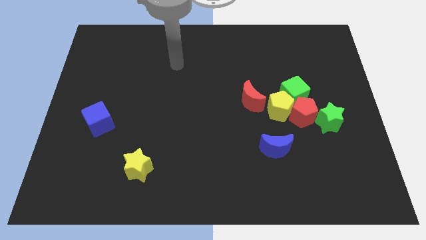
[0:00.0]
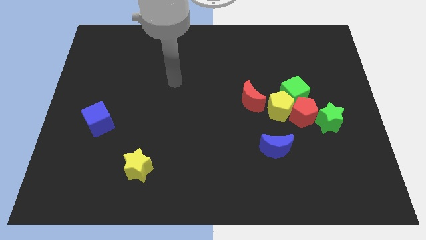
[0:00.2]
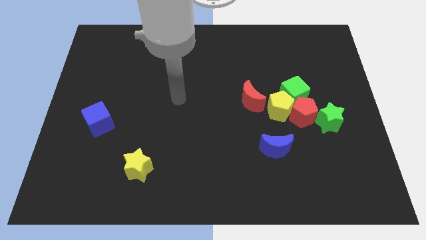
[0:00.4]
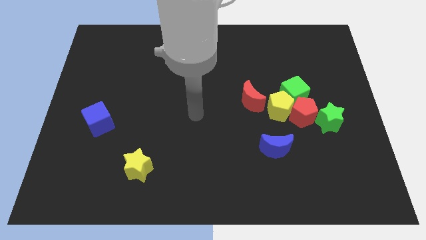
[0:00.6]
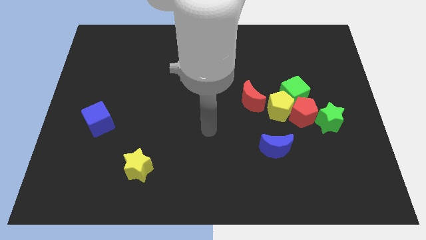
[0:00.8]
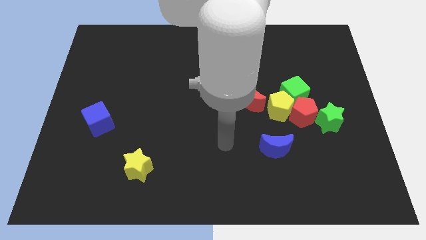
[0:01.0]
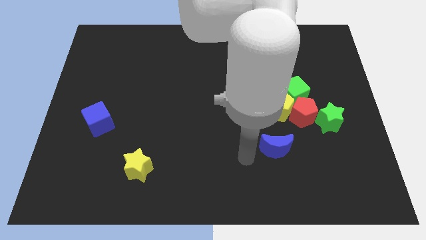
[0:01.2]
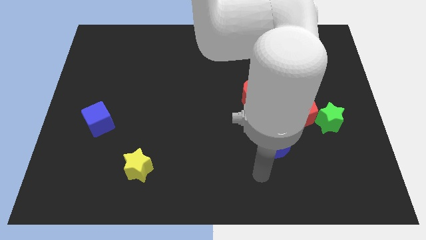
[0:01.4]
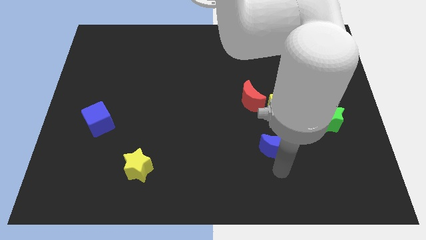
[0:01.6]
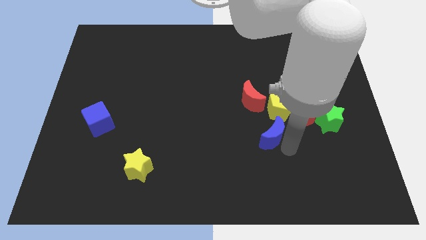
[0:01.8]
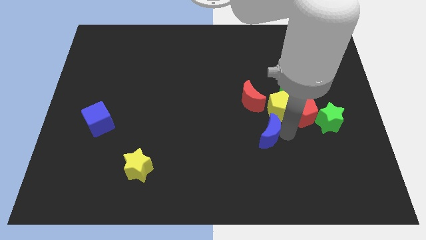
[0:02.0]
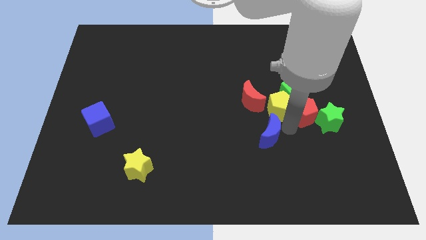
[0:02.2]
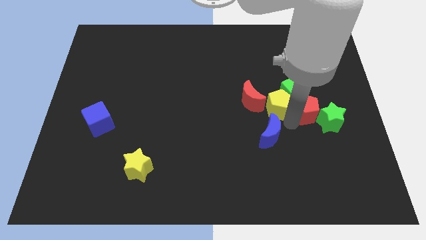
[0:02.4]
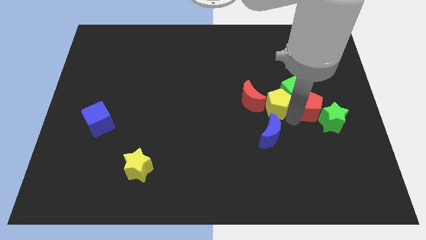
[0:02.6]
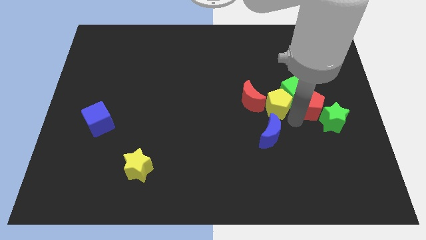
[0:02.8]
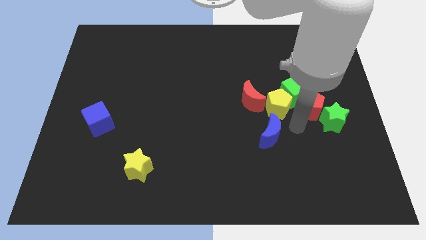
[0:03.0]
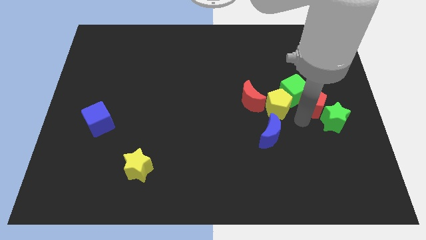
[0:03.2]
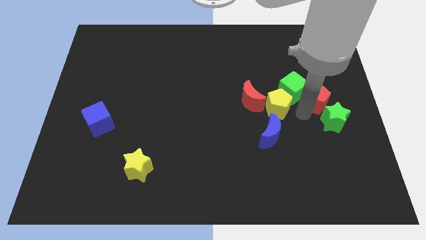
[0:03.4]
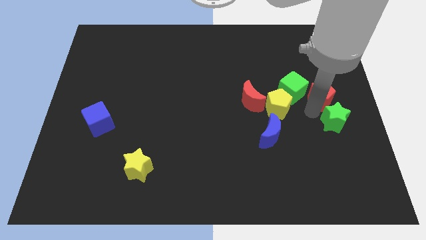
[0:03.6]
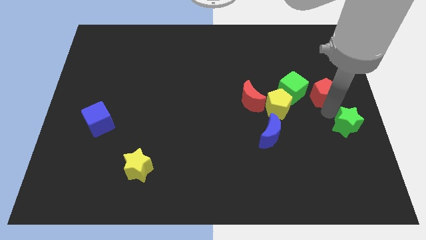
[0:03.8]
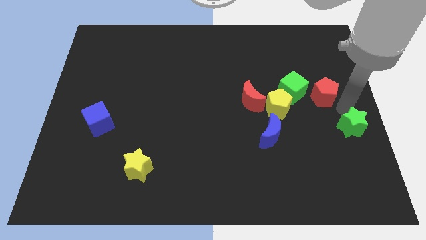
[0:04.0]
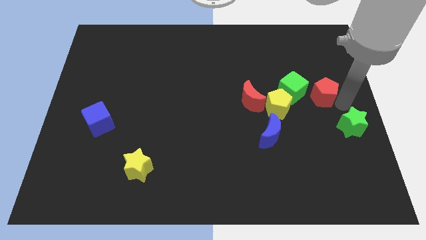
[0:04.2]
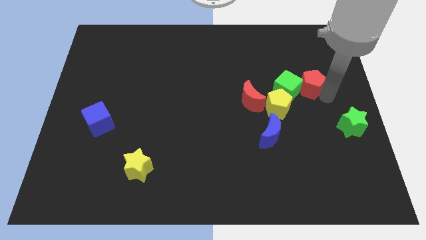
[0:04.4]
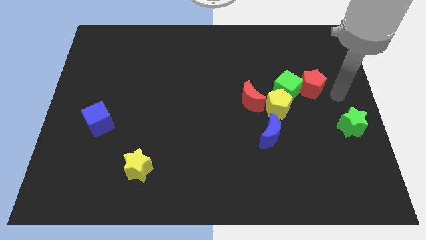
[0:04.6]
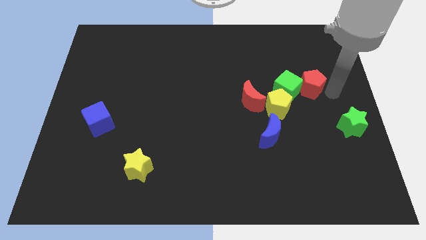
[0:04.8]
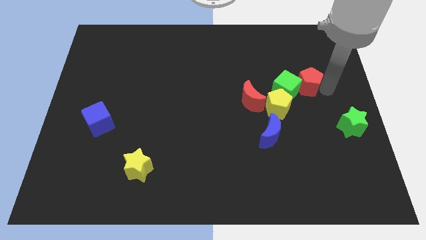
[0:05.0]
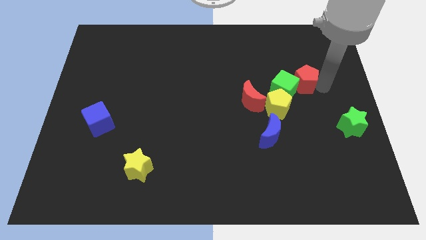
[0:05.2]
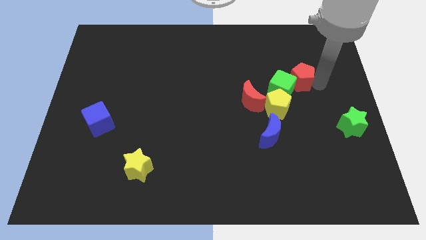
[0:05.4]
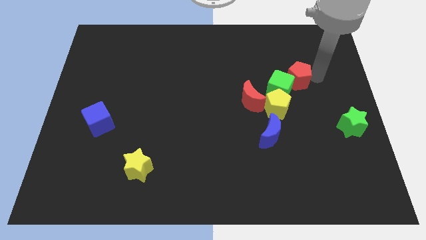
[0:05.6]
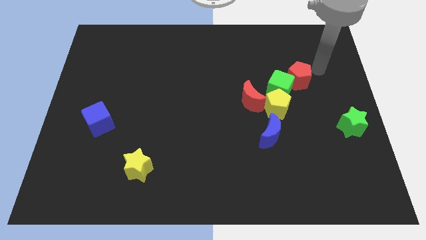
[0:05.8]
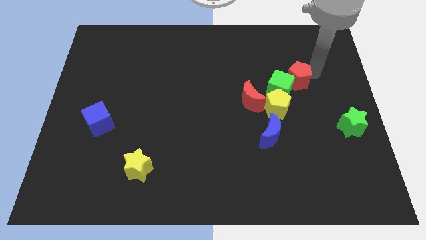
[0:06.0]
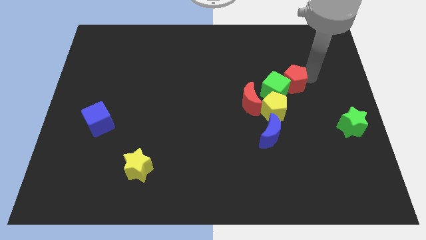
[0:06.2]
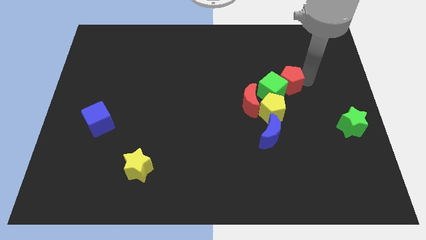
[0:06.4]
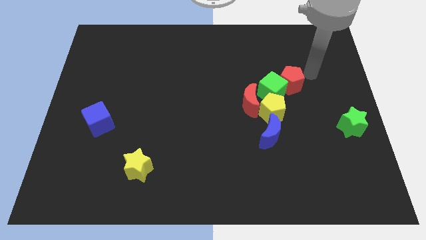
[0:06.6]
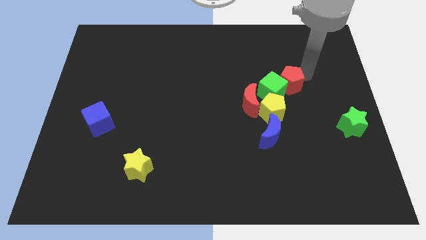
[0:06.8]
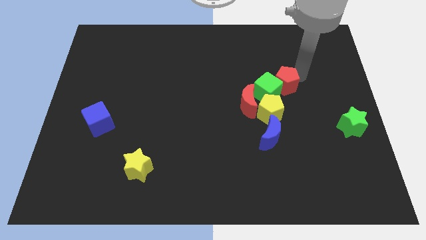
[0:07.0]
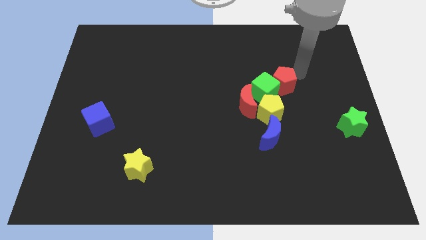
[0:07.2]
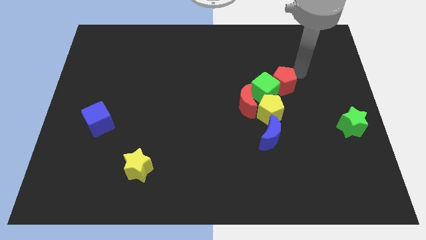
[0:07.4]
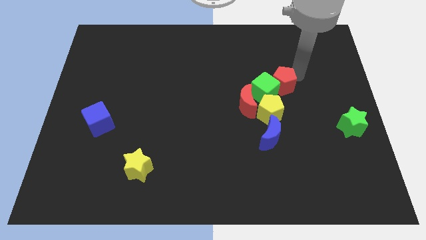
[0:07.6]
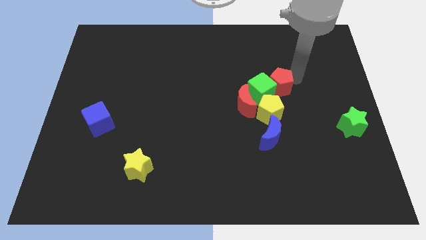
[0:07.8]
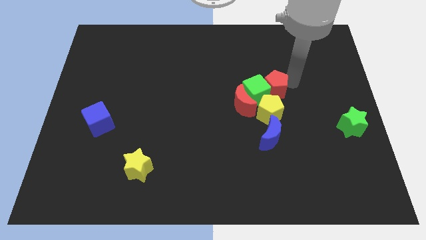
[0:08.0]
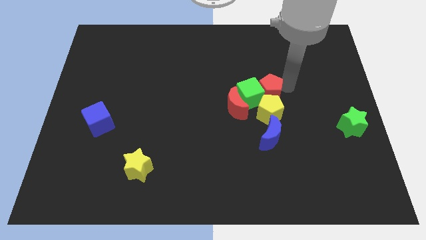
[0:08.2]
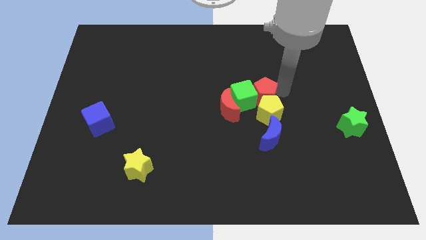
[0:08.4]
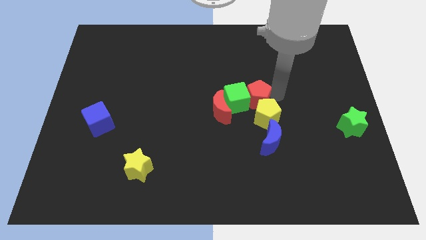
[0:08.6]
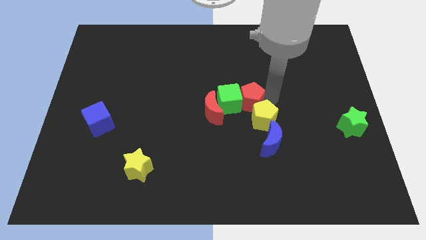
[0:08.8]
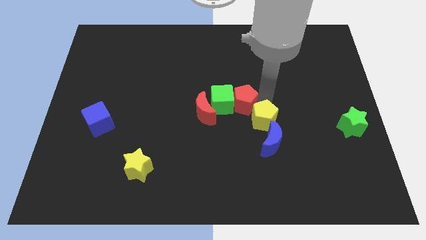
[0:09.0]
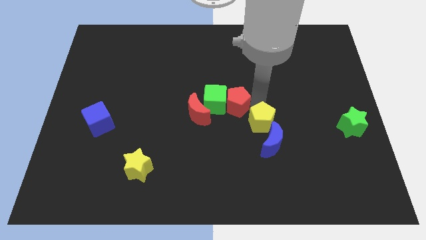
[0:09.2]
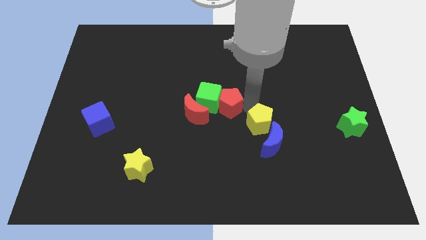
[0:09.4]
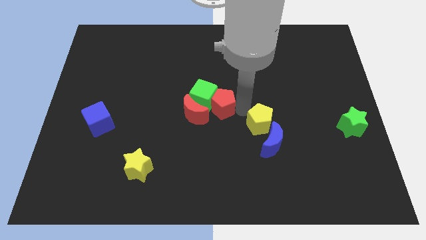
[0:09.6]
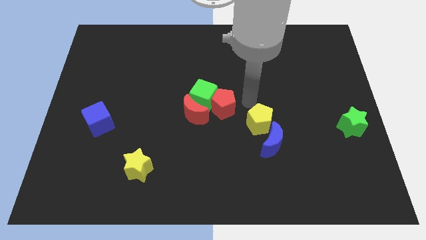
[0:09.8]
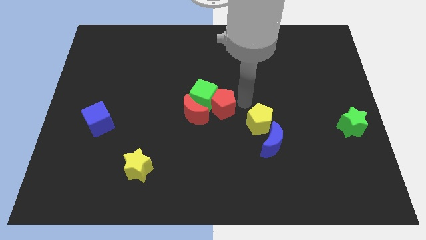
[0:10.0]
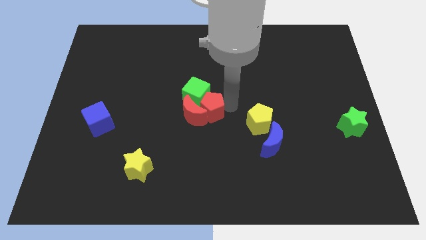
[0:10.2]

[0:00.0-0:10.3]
push the red pentagon next to the red moon

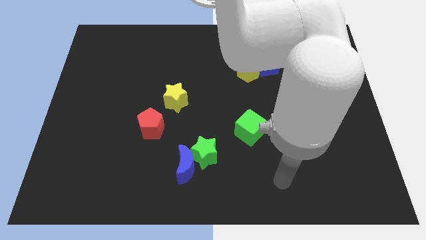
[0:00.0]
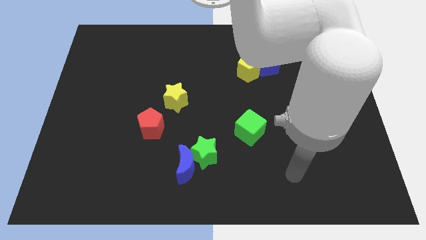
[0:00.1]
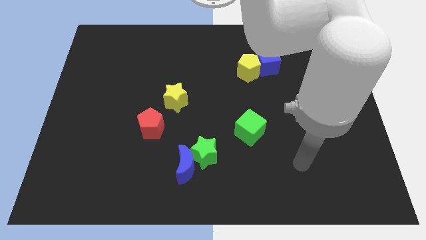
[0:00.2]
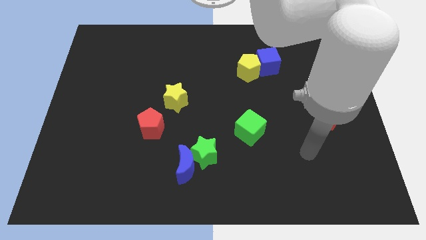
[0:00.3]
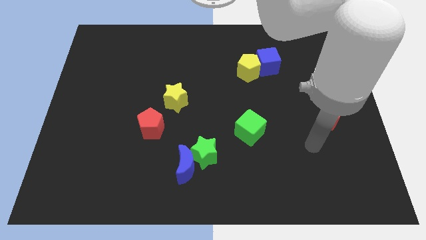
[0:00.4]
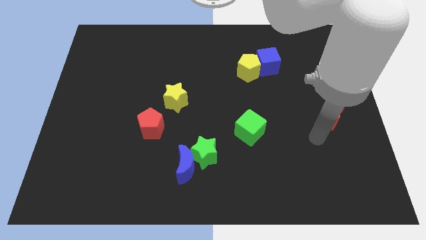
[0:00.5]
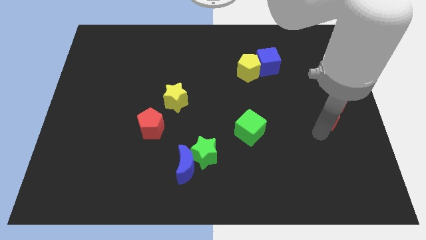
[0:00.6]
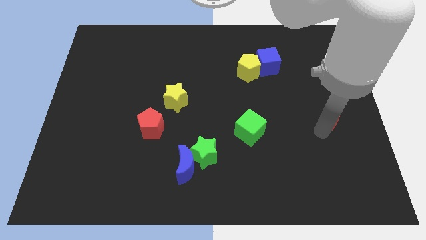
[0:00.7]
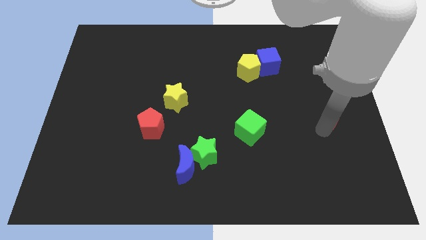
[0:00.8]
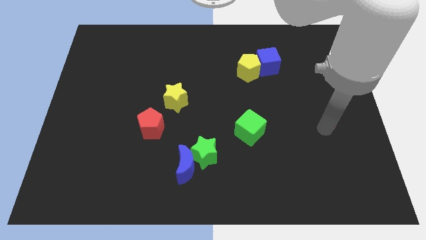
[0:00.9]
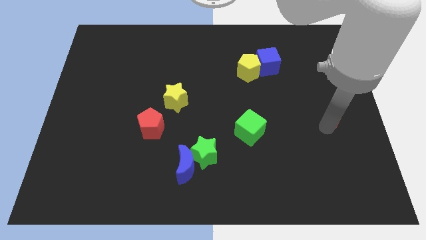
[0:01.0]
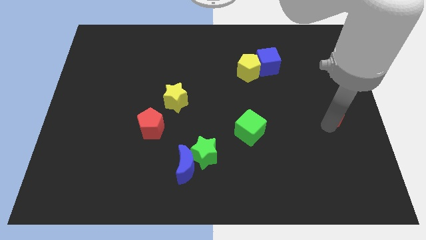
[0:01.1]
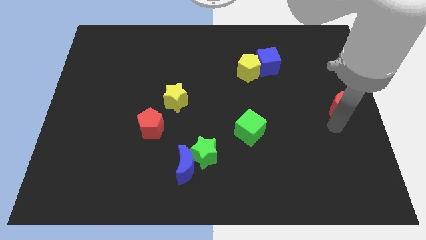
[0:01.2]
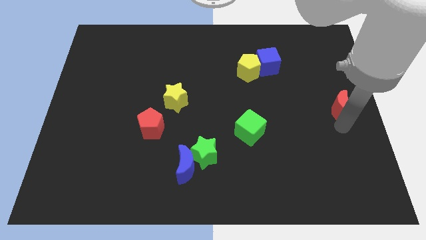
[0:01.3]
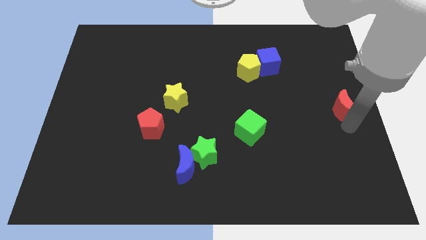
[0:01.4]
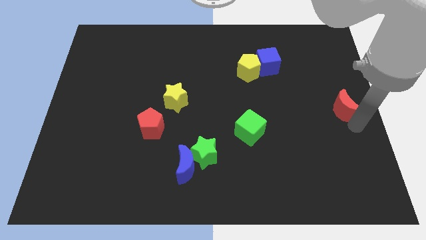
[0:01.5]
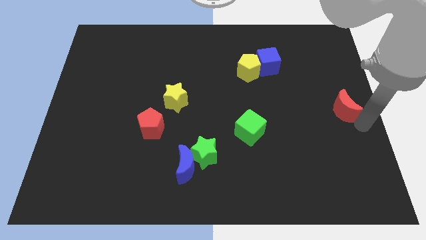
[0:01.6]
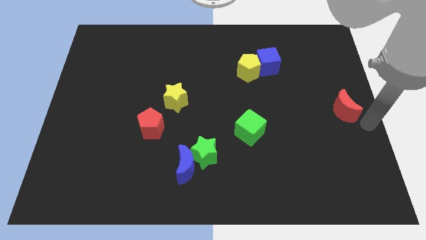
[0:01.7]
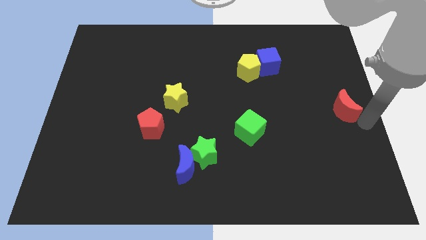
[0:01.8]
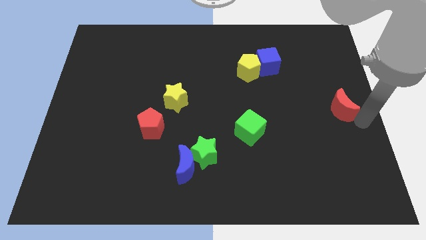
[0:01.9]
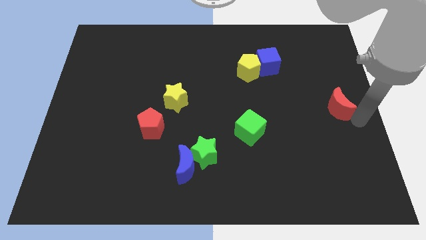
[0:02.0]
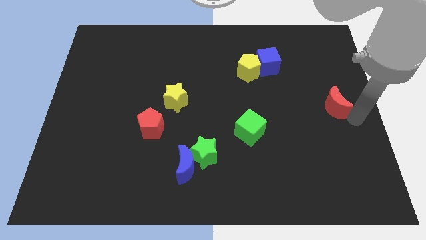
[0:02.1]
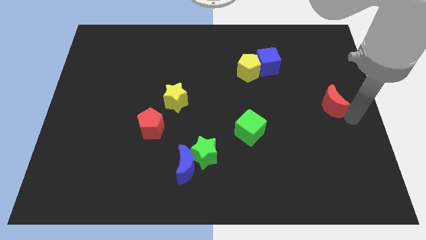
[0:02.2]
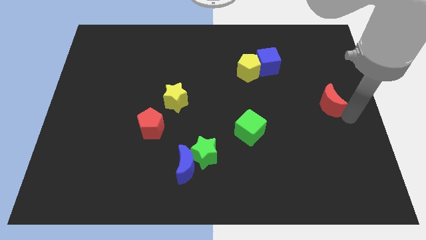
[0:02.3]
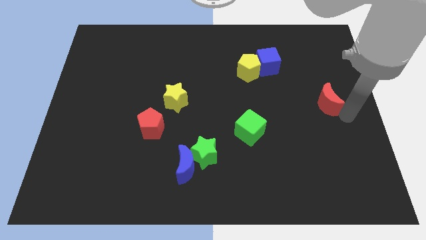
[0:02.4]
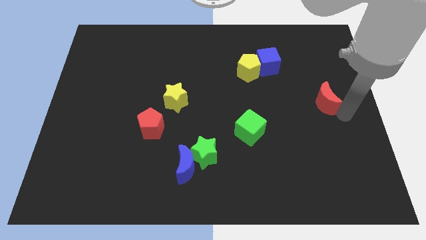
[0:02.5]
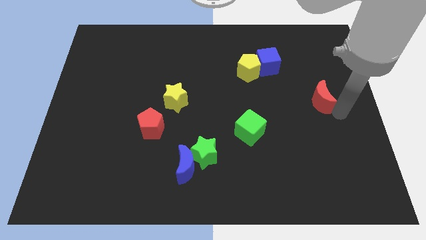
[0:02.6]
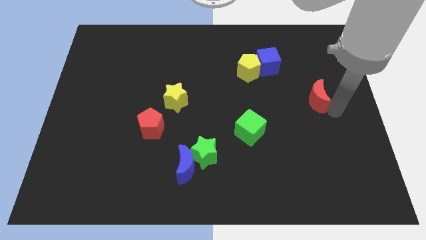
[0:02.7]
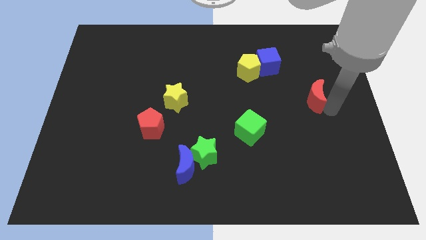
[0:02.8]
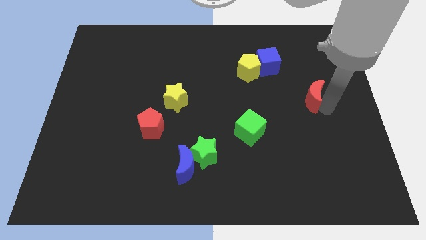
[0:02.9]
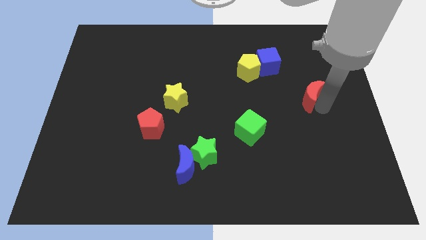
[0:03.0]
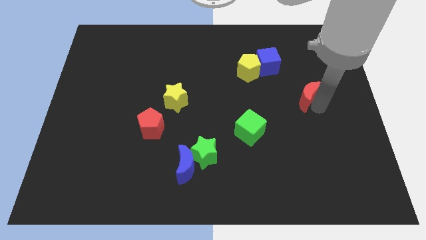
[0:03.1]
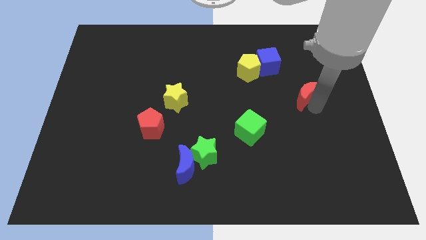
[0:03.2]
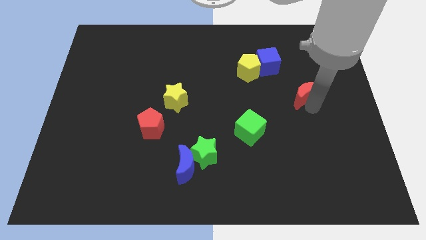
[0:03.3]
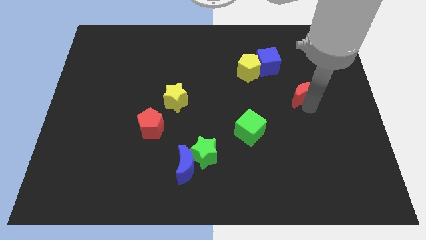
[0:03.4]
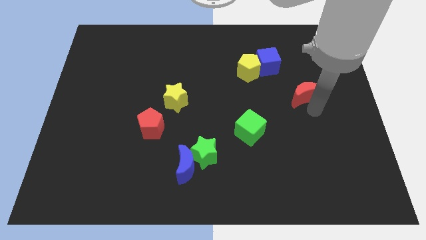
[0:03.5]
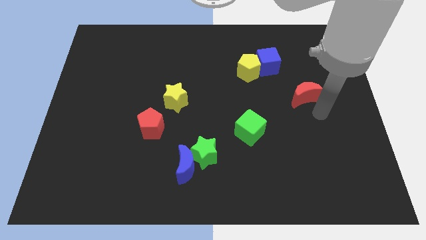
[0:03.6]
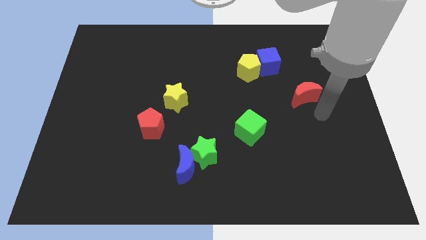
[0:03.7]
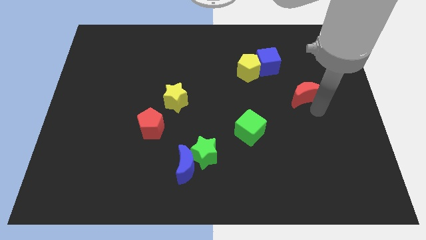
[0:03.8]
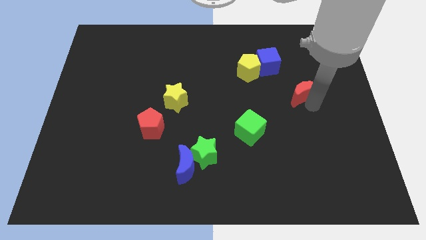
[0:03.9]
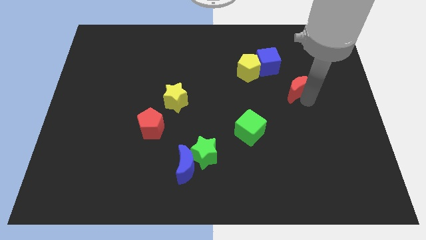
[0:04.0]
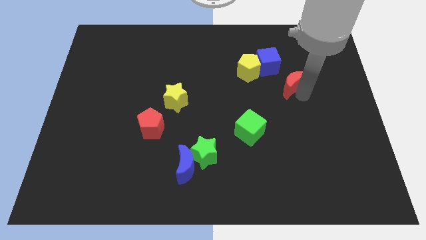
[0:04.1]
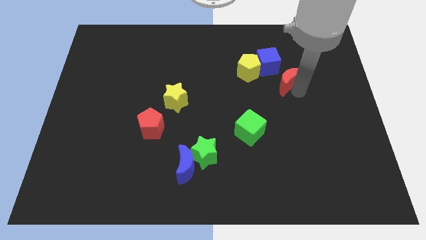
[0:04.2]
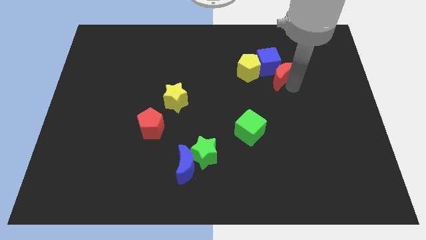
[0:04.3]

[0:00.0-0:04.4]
move the red moon next to the blue cube
